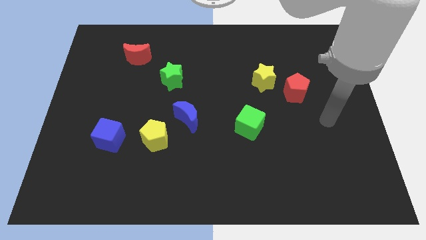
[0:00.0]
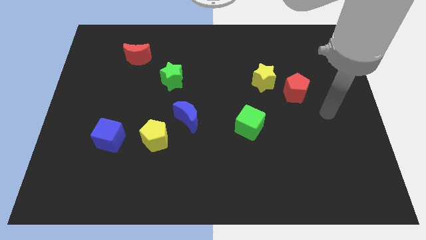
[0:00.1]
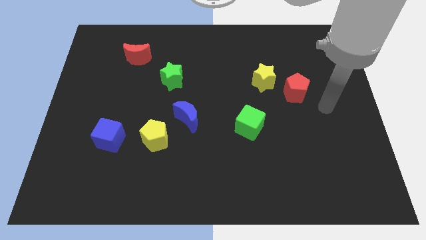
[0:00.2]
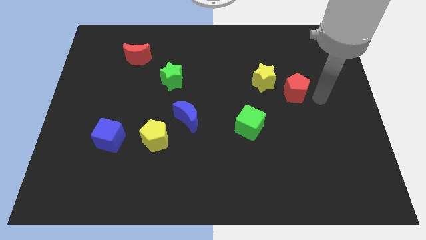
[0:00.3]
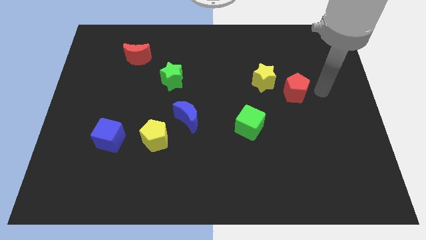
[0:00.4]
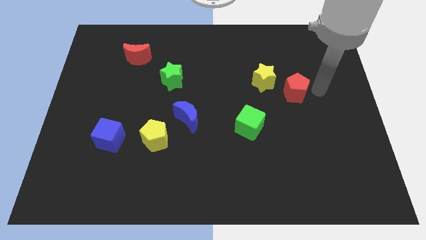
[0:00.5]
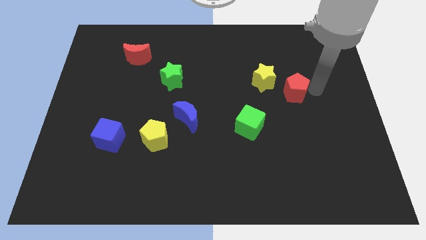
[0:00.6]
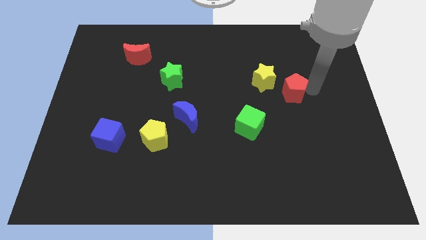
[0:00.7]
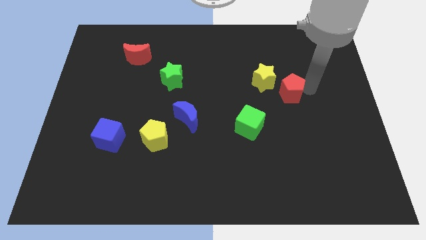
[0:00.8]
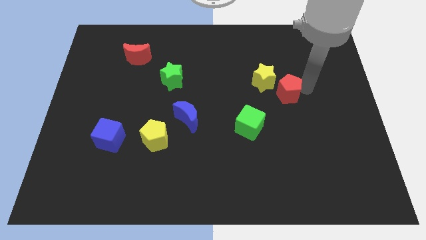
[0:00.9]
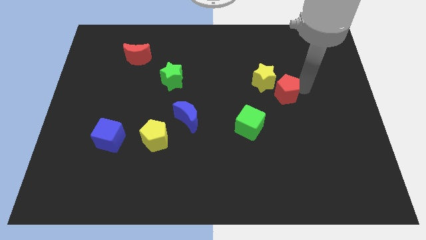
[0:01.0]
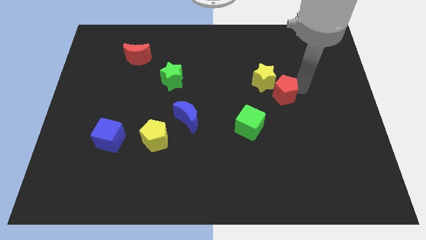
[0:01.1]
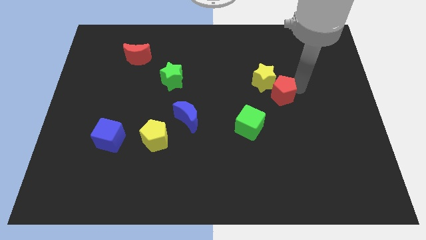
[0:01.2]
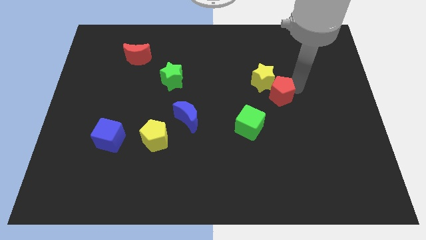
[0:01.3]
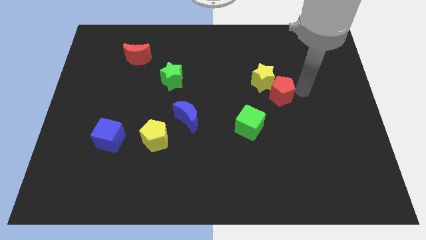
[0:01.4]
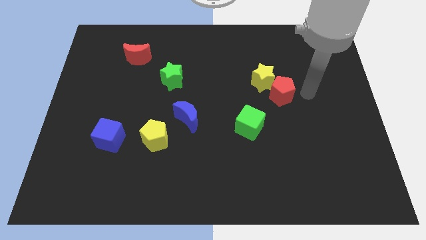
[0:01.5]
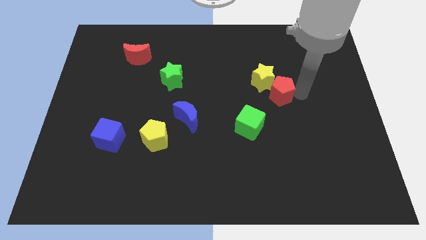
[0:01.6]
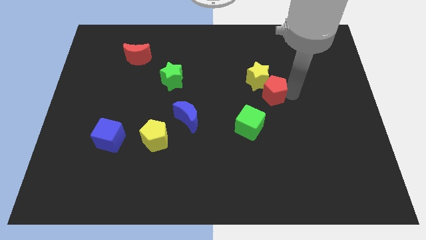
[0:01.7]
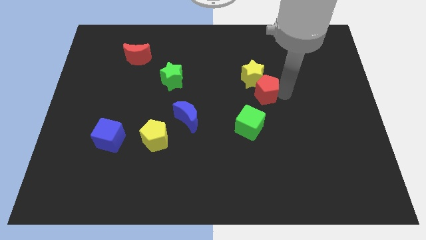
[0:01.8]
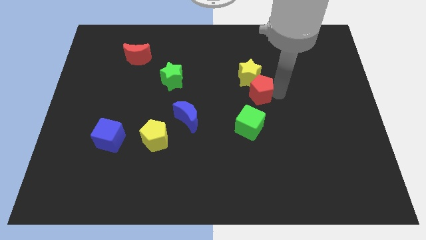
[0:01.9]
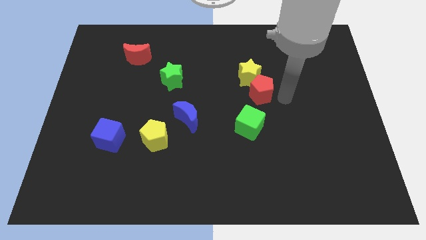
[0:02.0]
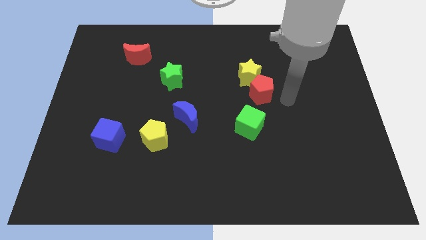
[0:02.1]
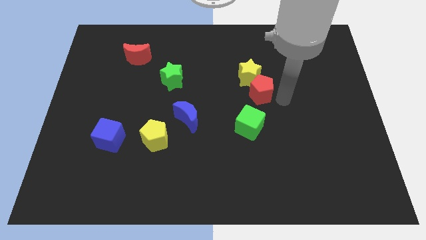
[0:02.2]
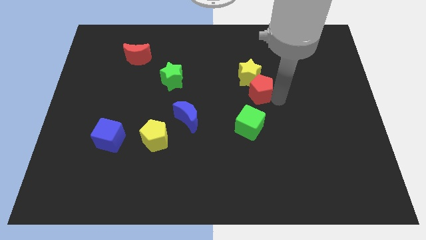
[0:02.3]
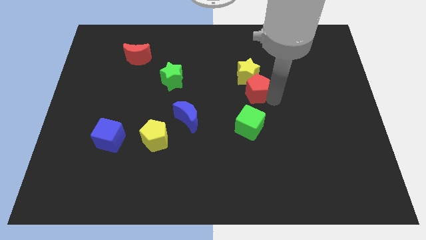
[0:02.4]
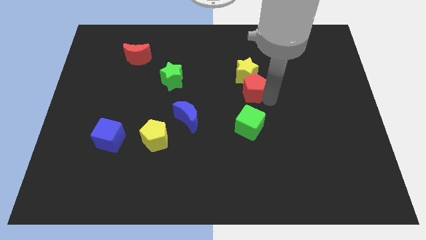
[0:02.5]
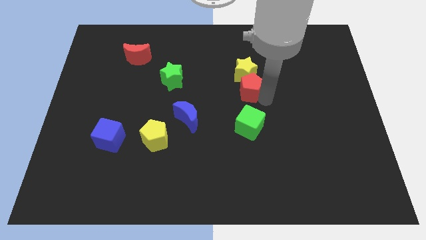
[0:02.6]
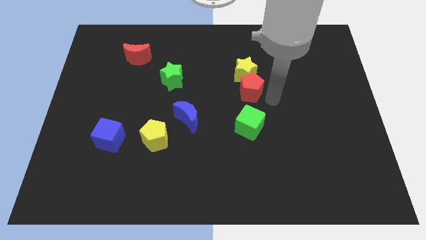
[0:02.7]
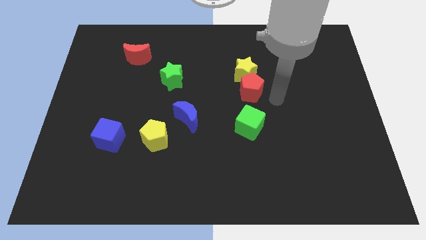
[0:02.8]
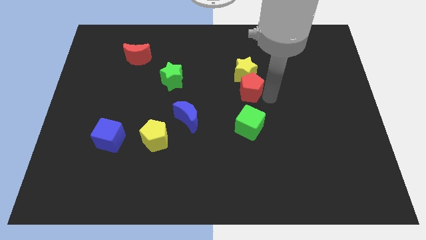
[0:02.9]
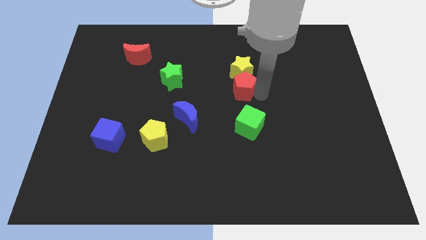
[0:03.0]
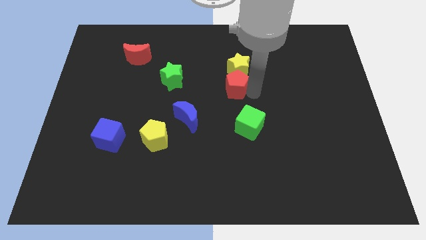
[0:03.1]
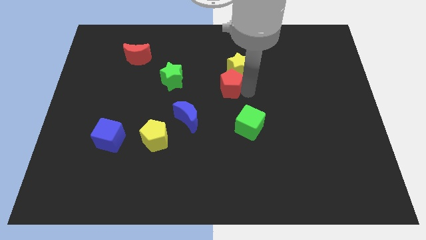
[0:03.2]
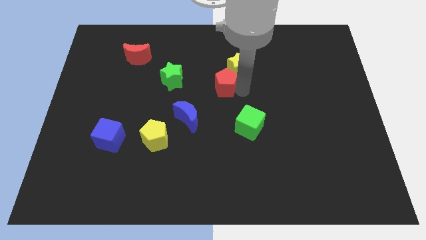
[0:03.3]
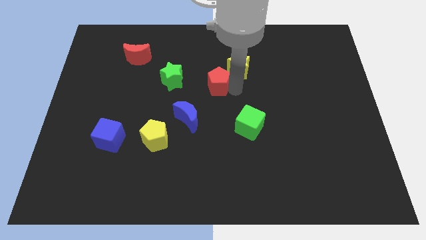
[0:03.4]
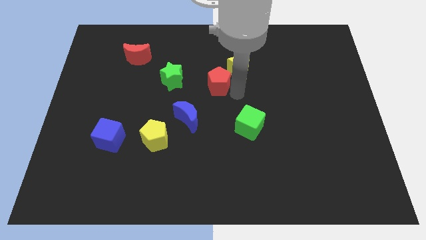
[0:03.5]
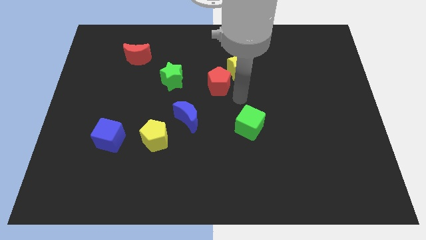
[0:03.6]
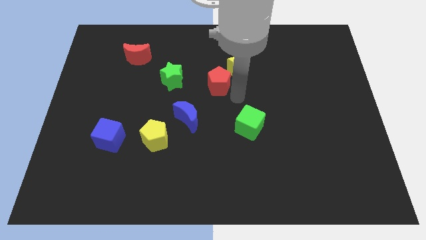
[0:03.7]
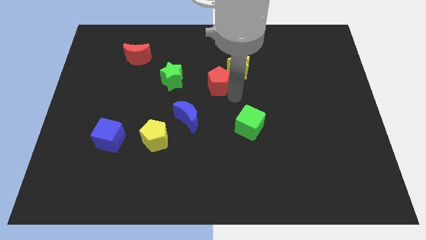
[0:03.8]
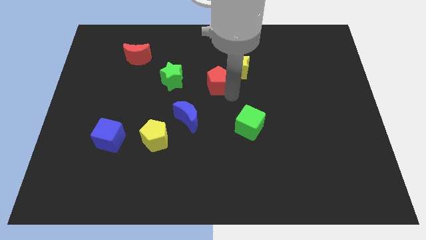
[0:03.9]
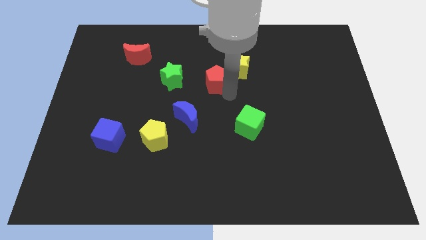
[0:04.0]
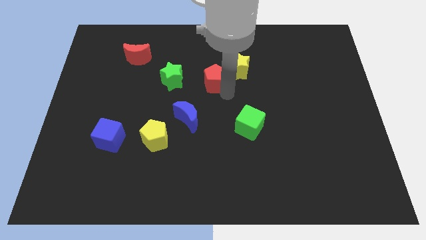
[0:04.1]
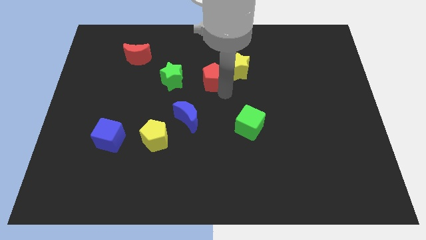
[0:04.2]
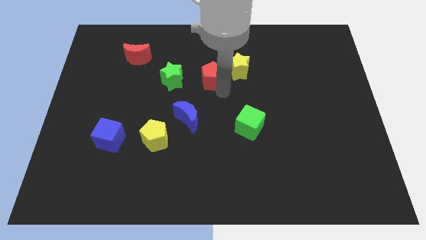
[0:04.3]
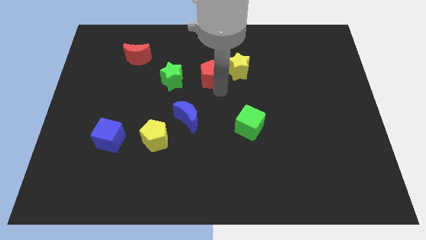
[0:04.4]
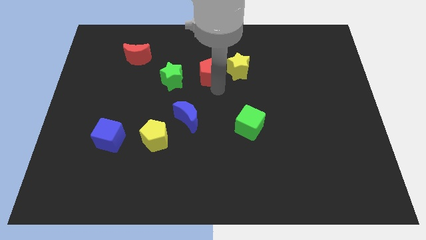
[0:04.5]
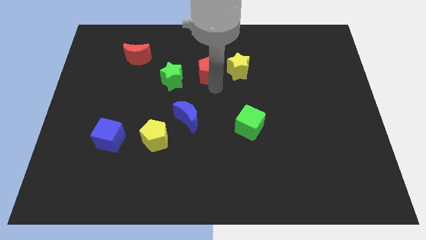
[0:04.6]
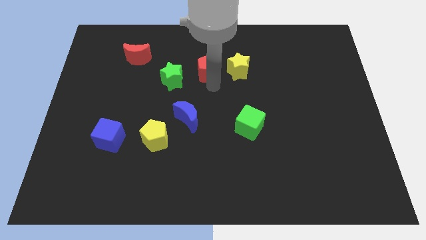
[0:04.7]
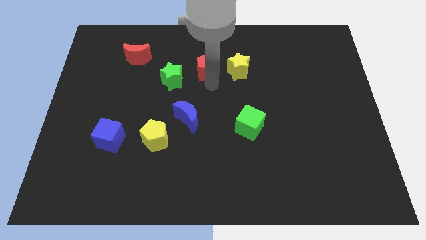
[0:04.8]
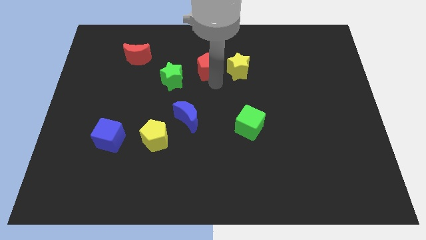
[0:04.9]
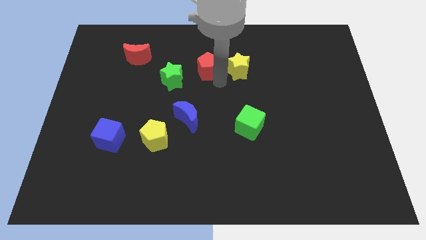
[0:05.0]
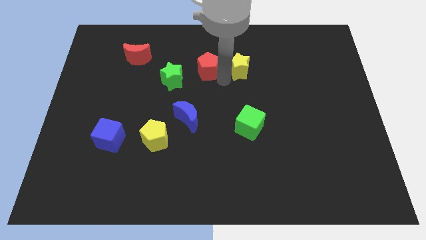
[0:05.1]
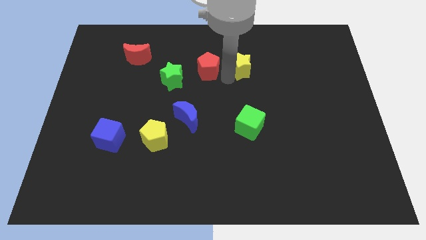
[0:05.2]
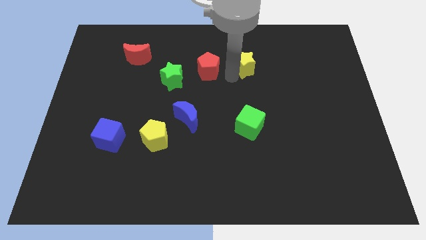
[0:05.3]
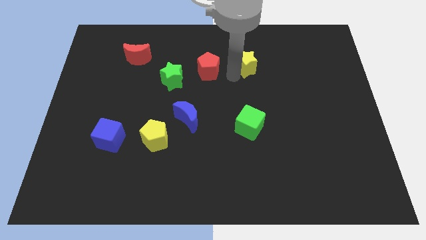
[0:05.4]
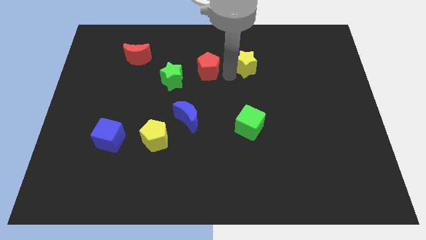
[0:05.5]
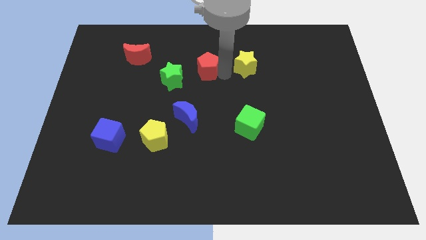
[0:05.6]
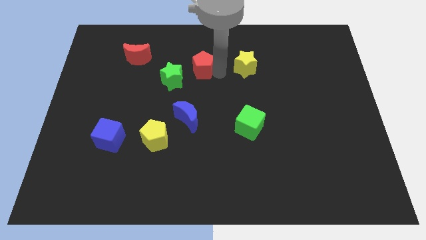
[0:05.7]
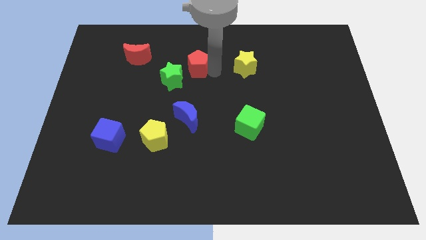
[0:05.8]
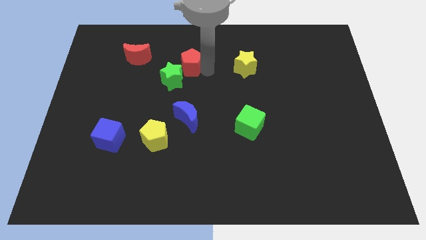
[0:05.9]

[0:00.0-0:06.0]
put the red pentagon to the right side of the red moon

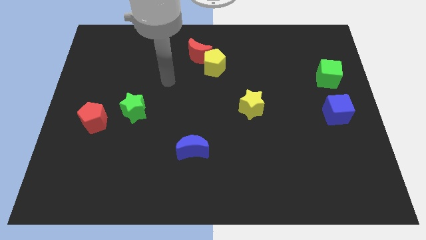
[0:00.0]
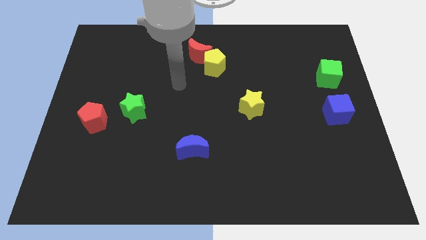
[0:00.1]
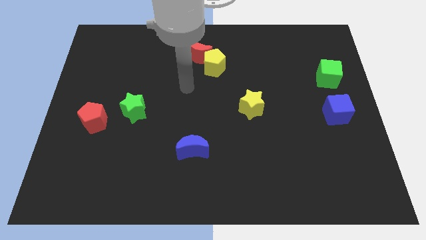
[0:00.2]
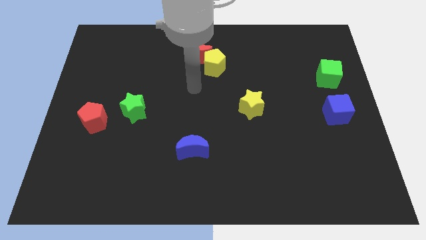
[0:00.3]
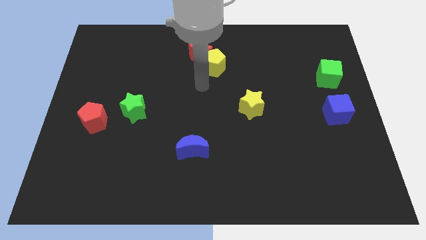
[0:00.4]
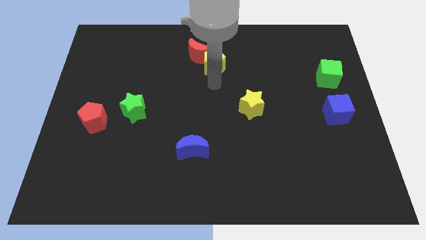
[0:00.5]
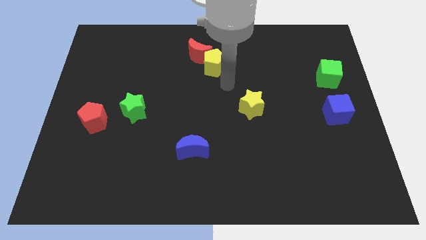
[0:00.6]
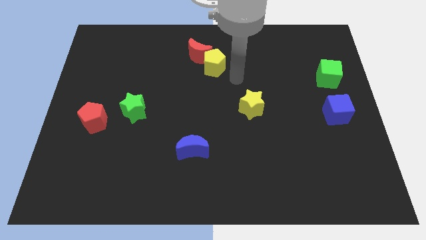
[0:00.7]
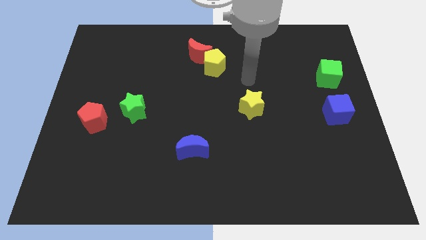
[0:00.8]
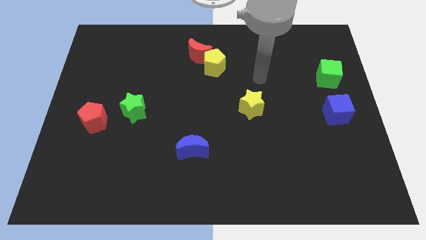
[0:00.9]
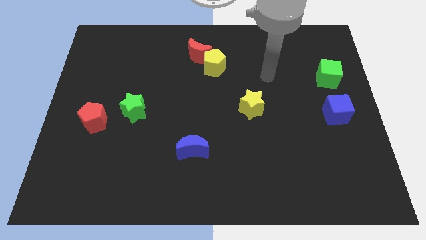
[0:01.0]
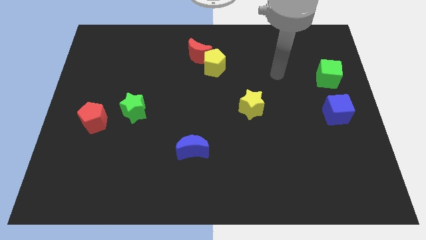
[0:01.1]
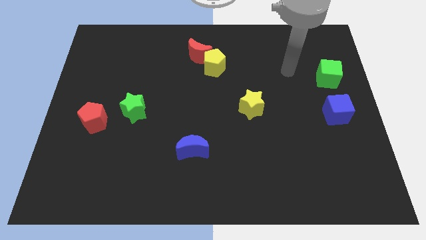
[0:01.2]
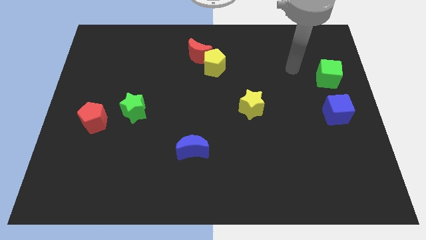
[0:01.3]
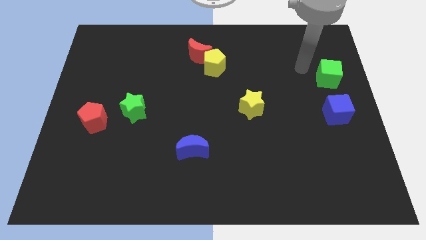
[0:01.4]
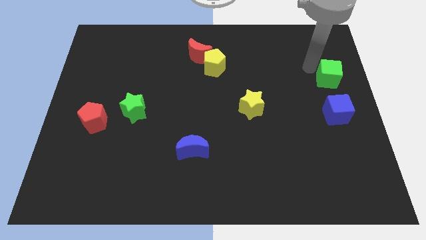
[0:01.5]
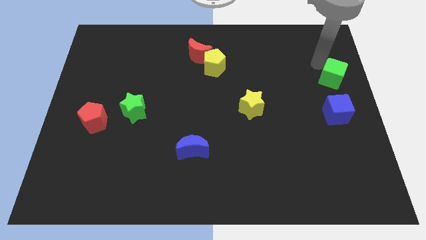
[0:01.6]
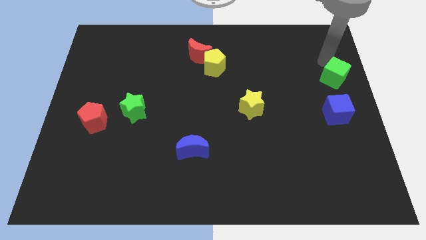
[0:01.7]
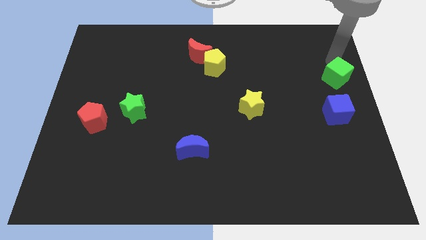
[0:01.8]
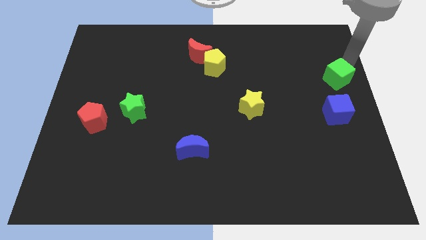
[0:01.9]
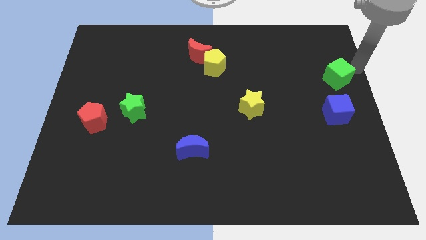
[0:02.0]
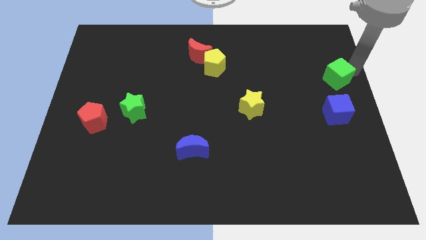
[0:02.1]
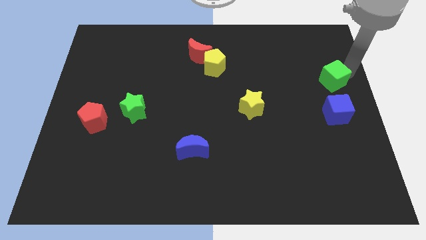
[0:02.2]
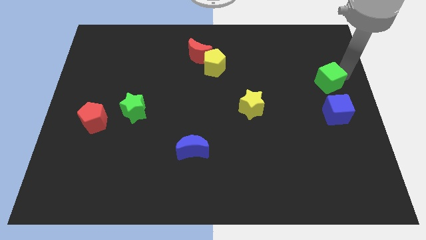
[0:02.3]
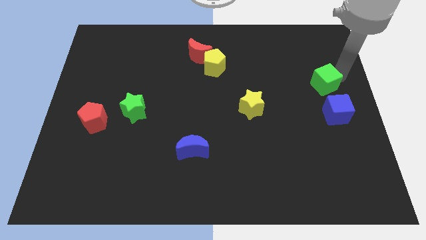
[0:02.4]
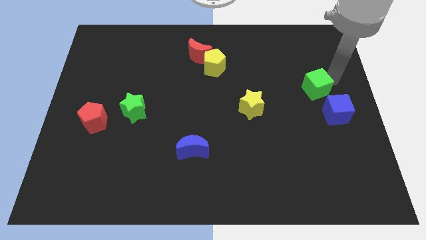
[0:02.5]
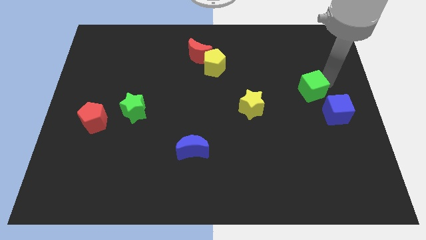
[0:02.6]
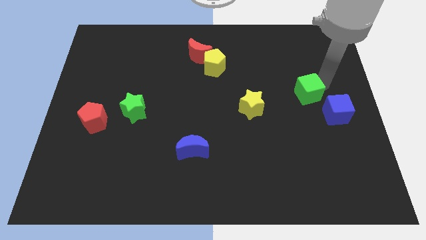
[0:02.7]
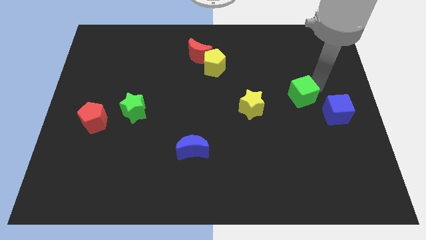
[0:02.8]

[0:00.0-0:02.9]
push the green cube just right of the yellow star
